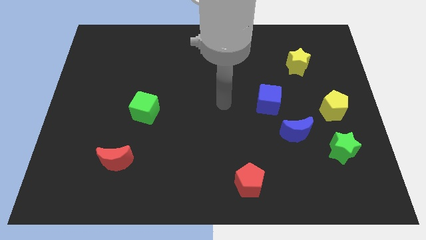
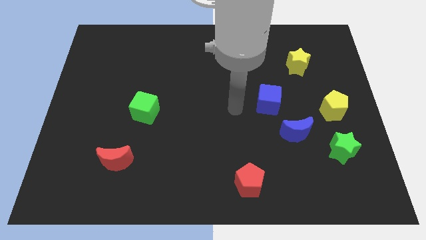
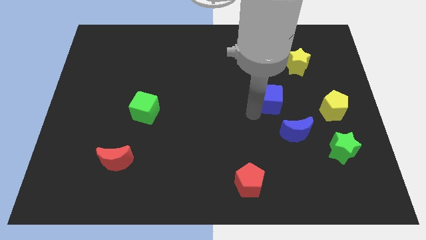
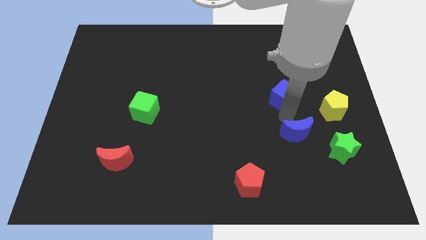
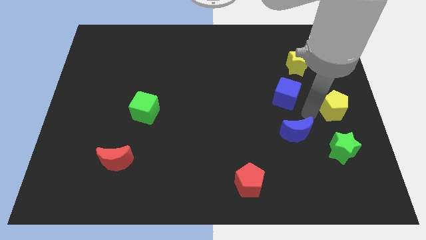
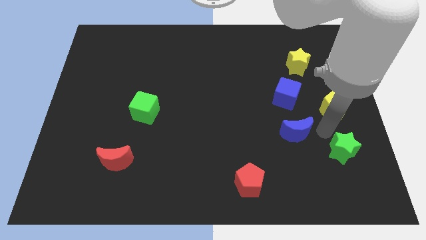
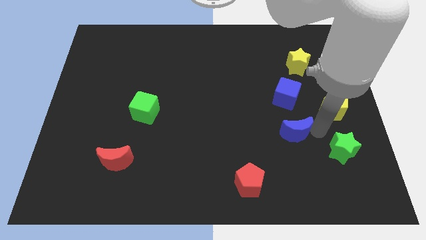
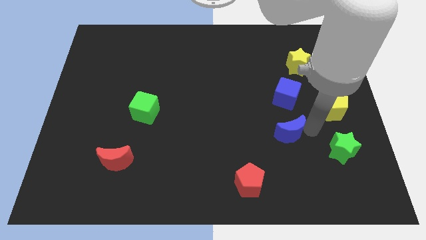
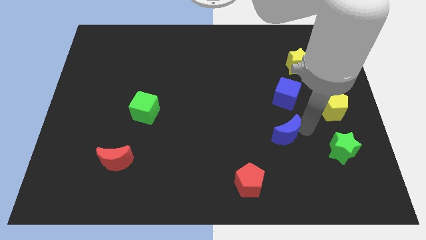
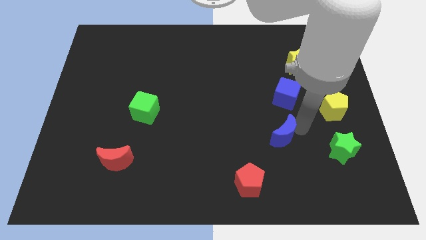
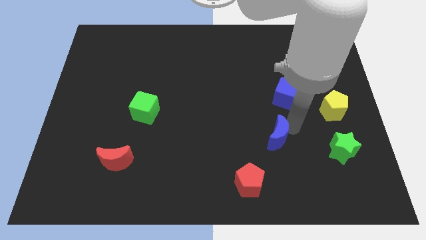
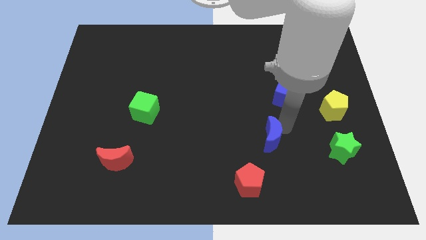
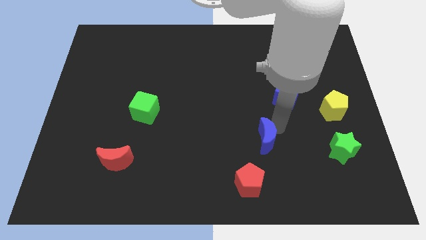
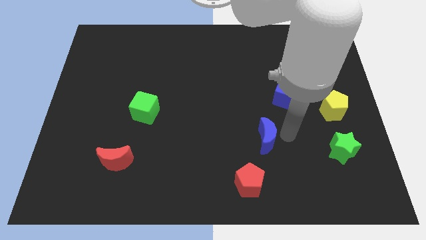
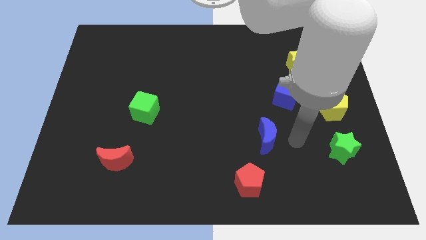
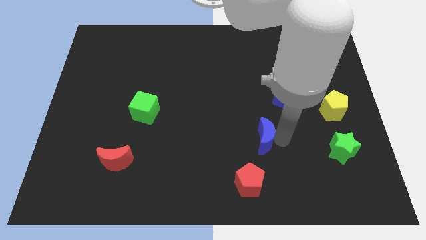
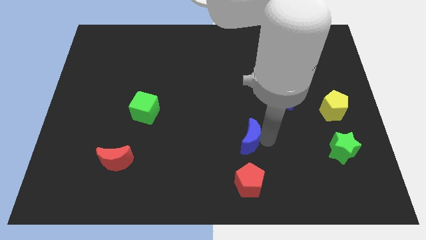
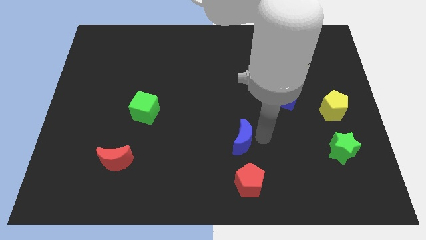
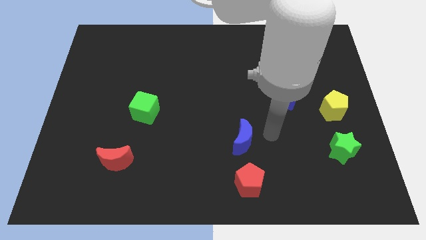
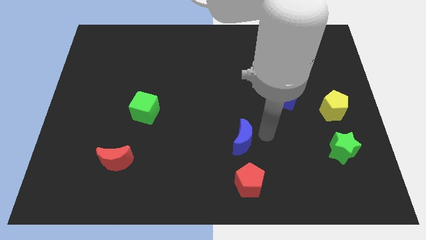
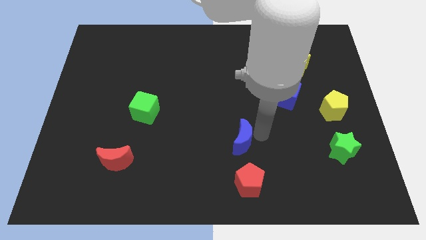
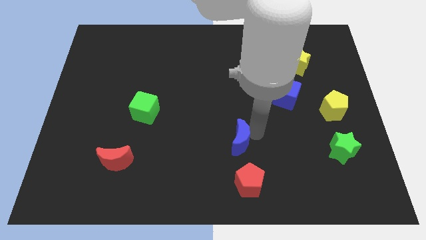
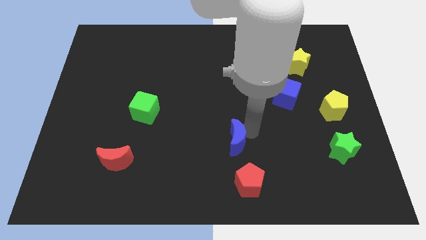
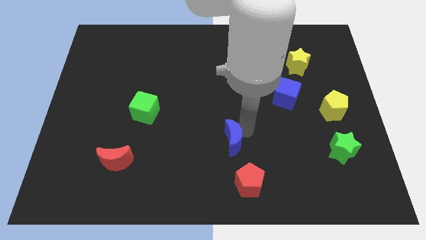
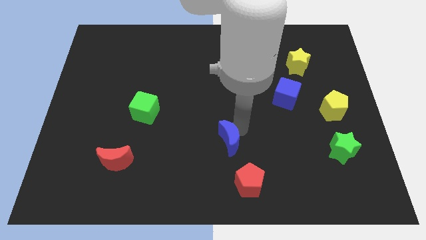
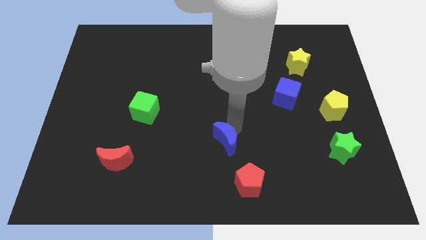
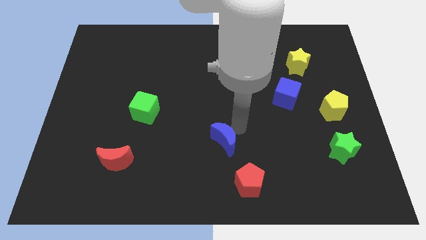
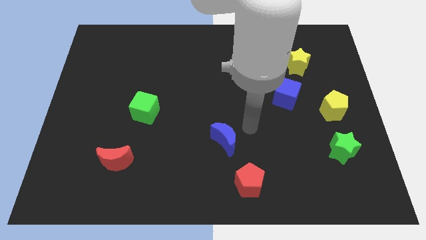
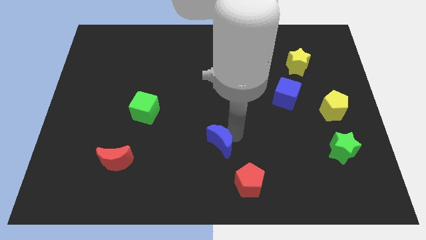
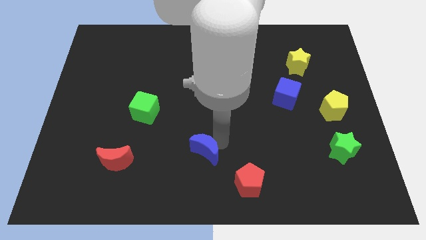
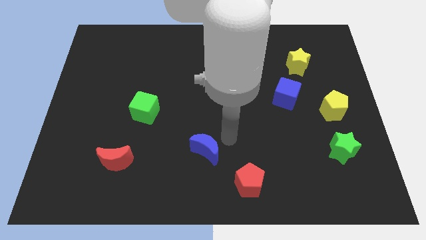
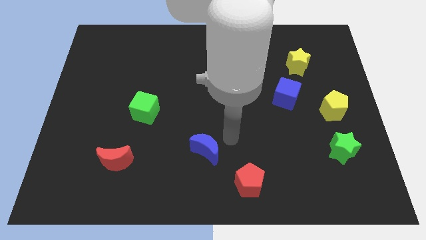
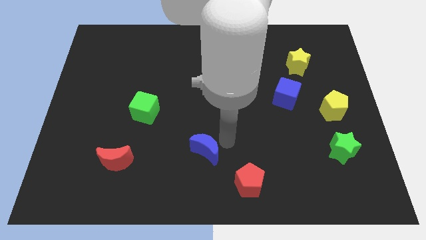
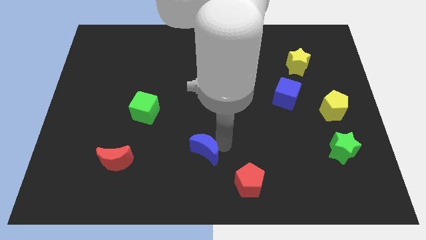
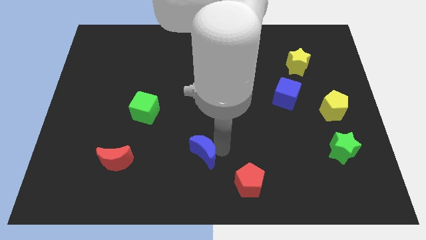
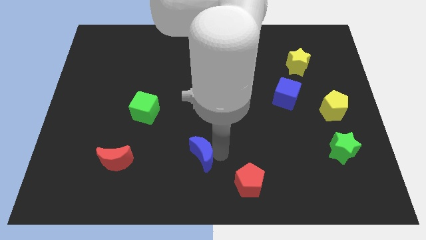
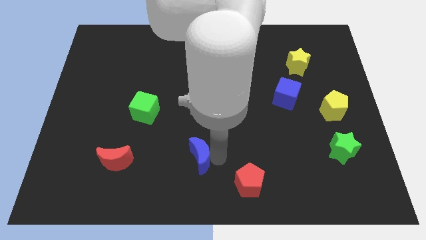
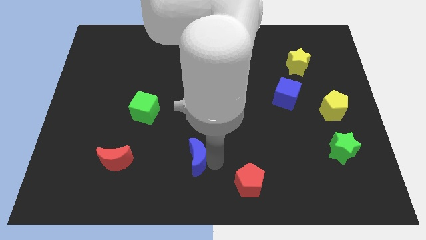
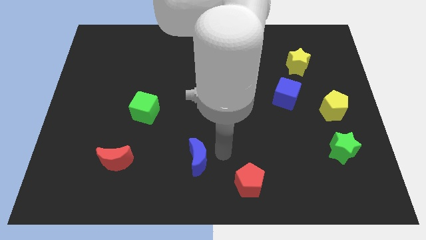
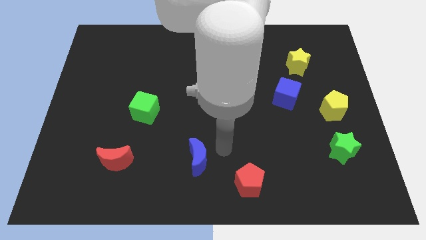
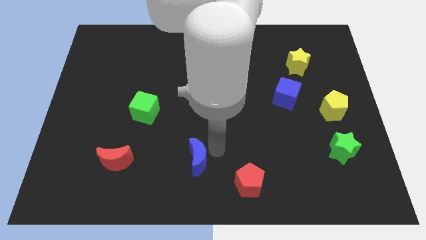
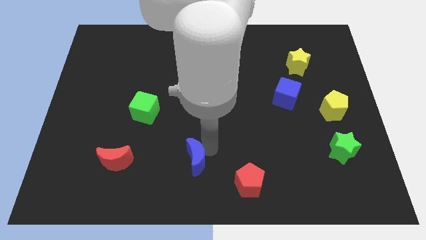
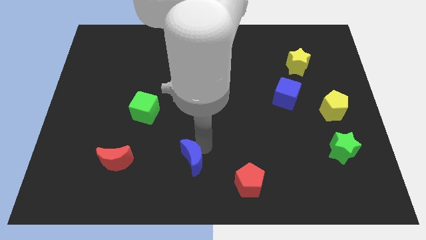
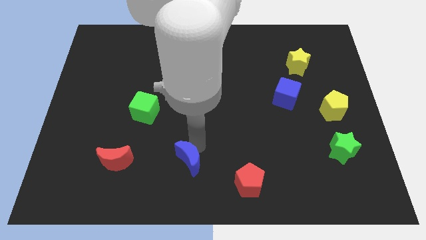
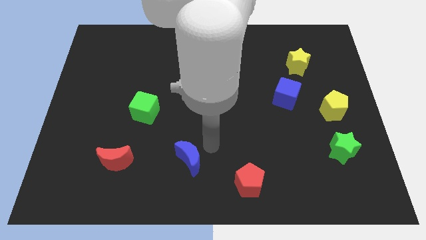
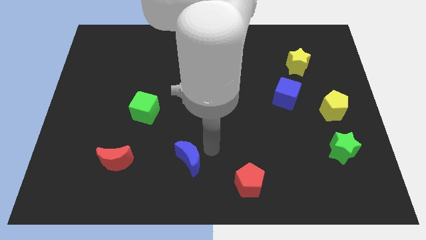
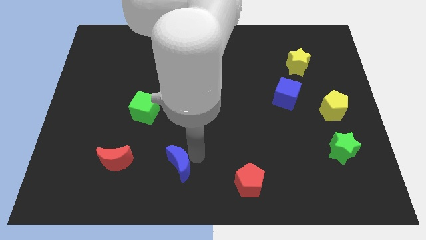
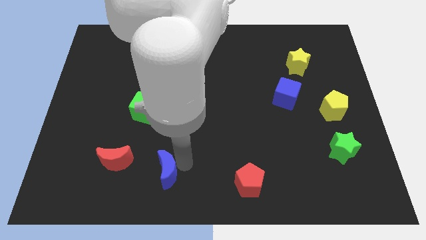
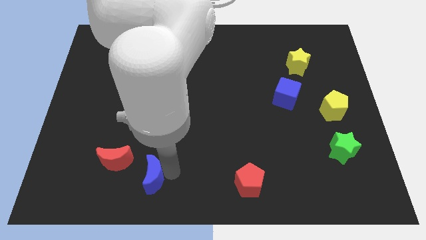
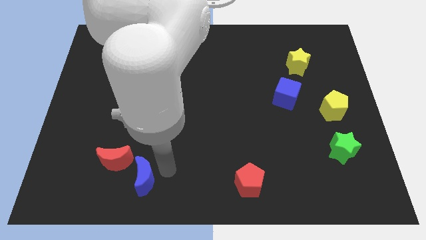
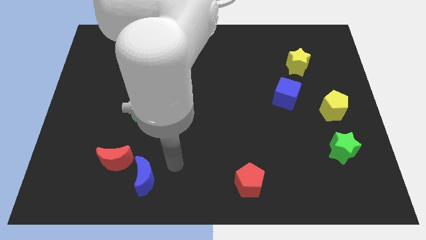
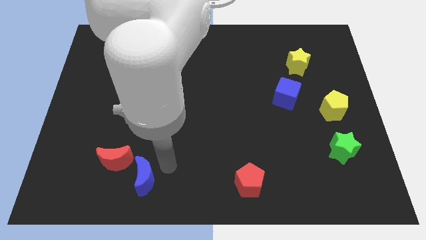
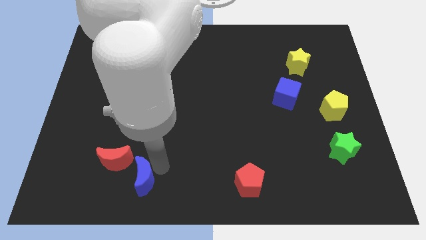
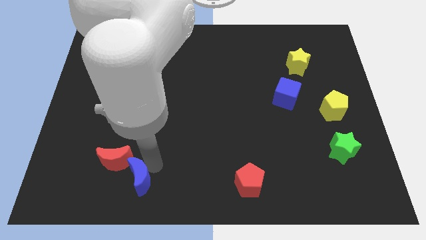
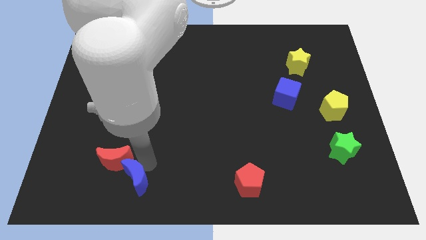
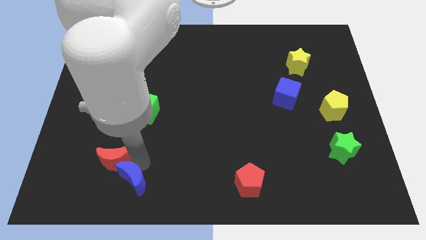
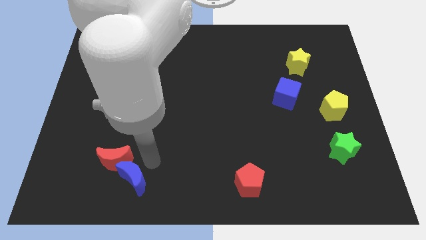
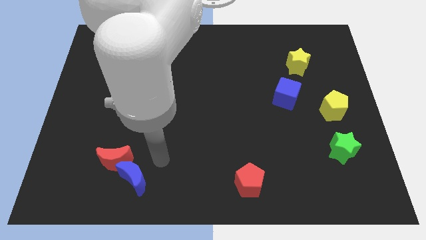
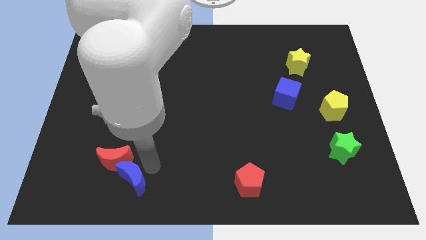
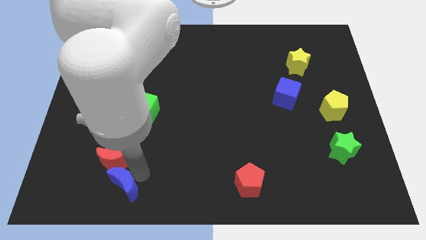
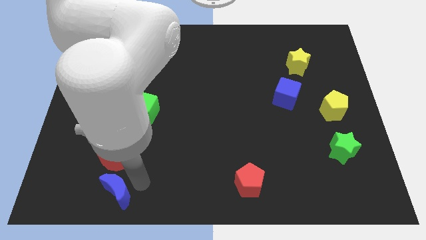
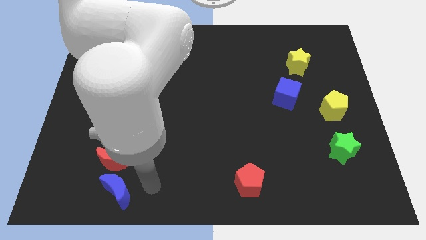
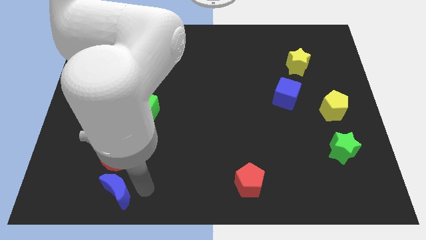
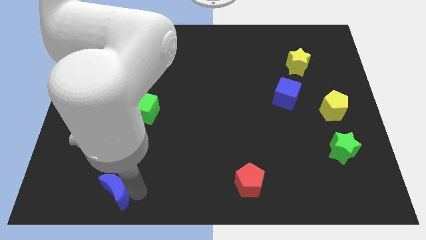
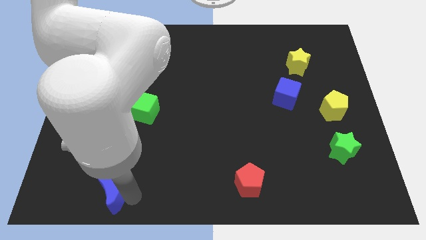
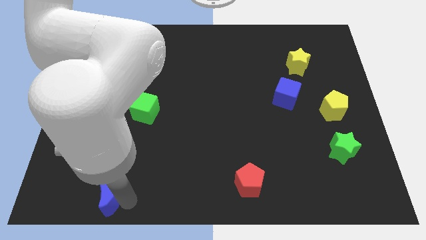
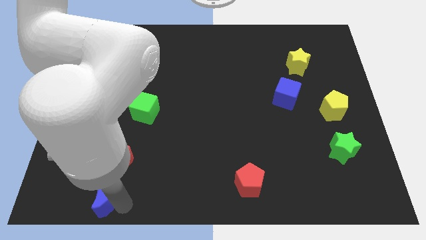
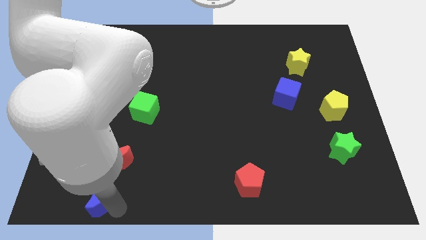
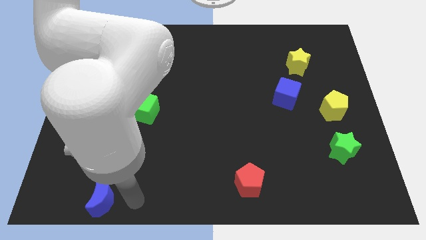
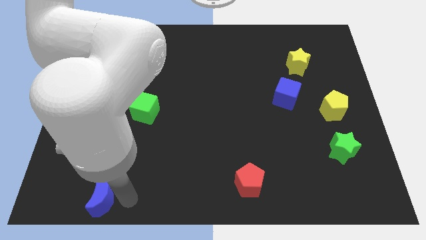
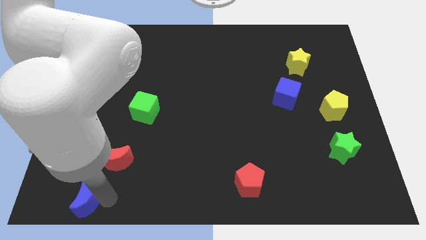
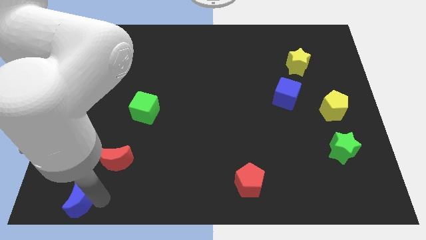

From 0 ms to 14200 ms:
move the blue moon to the bottom left of the board
